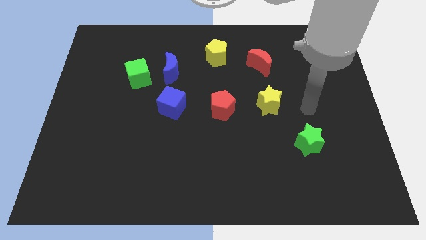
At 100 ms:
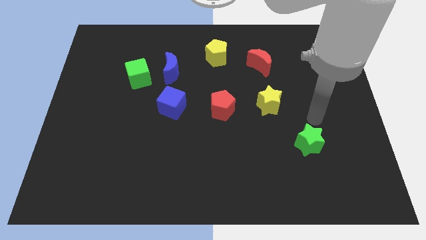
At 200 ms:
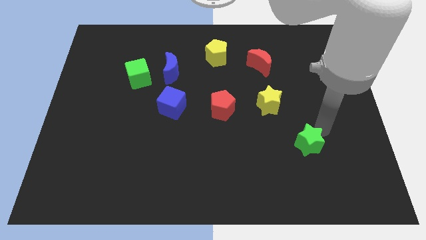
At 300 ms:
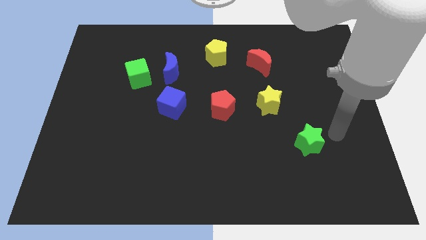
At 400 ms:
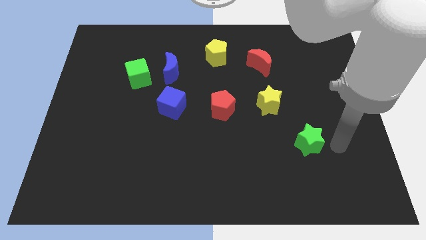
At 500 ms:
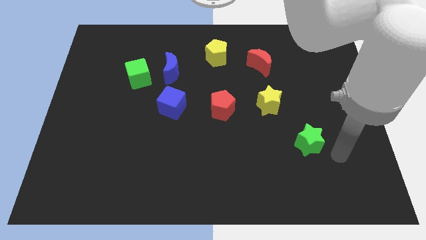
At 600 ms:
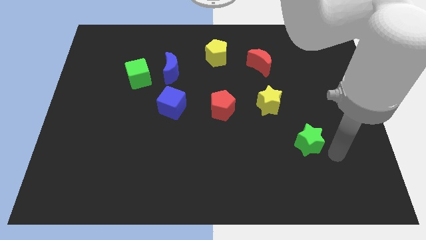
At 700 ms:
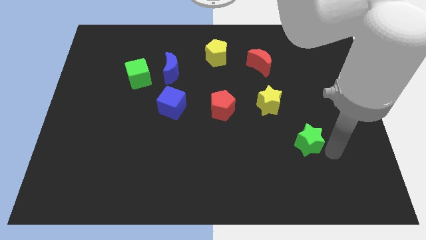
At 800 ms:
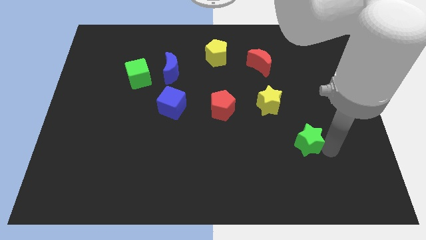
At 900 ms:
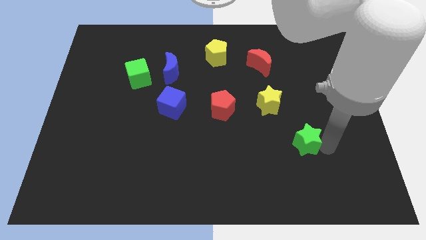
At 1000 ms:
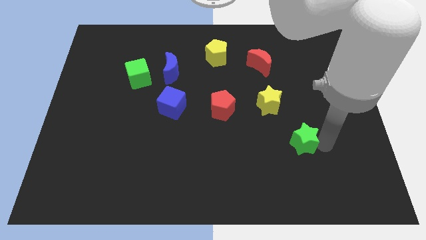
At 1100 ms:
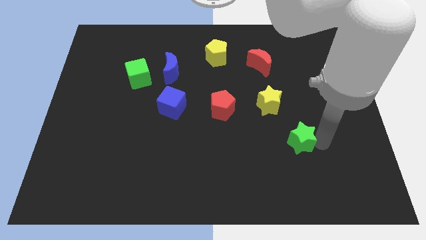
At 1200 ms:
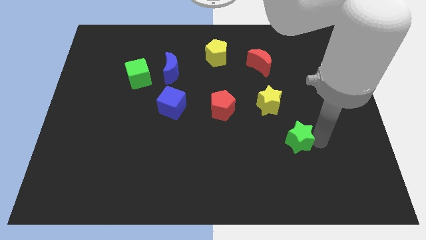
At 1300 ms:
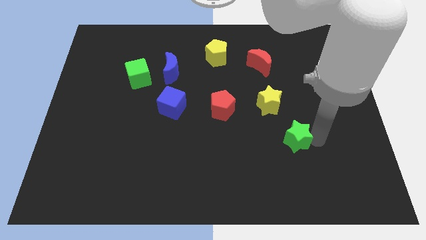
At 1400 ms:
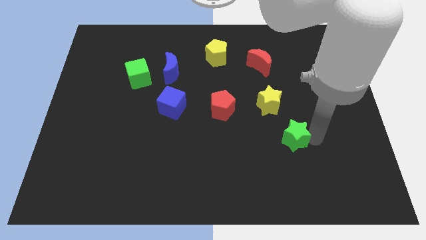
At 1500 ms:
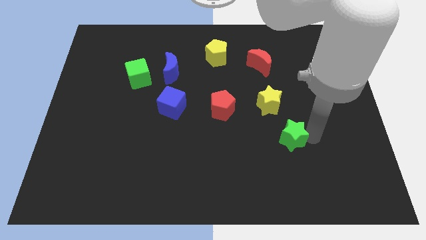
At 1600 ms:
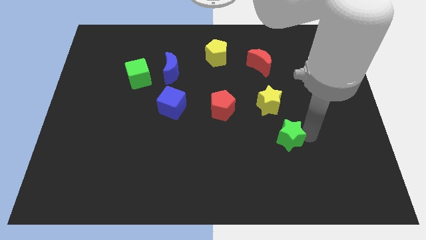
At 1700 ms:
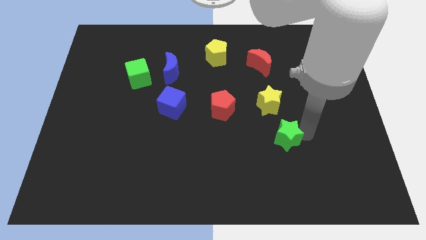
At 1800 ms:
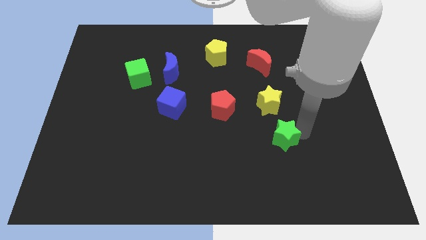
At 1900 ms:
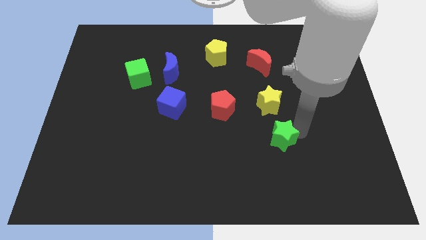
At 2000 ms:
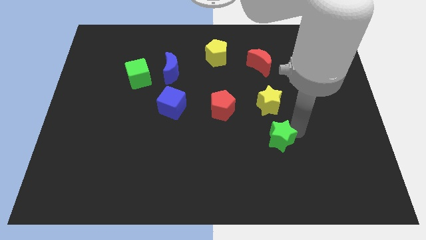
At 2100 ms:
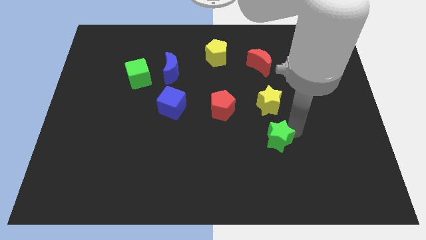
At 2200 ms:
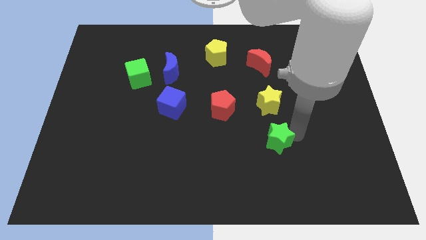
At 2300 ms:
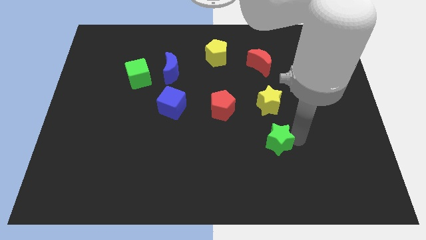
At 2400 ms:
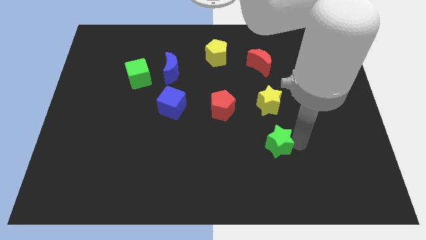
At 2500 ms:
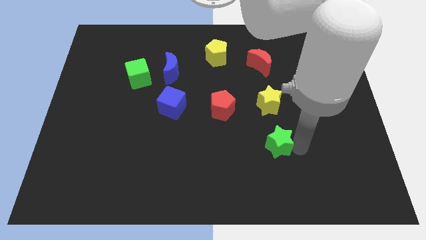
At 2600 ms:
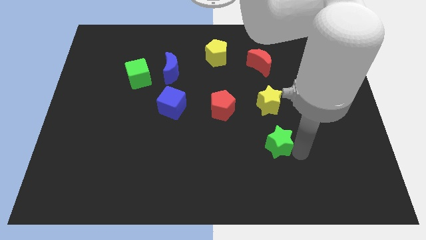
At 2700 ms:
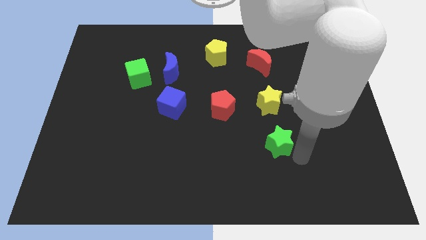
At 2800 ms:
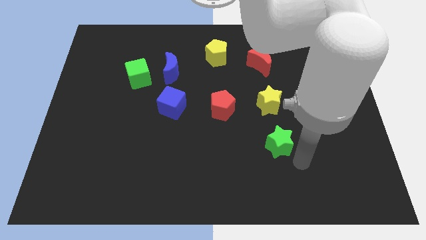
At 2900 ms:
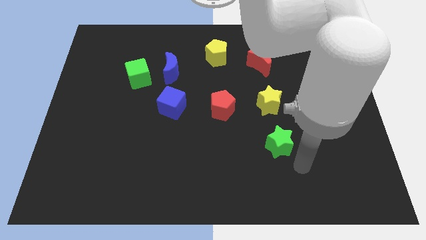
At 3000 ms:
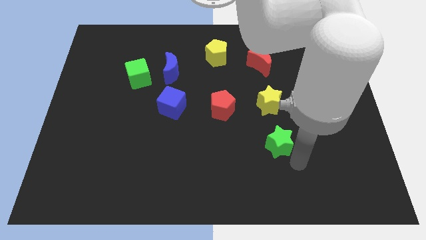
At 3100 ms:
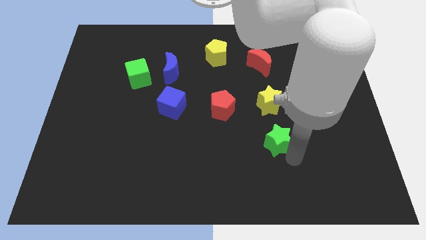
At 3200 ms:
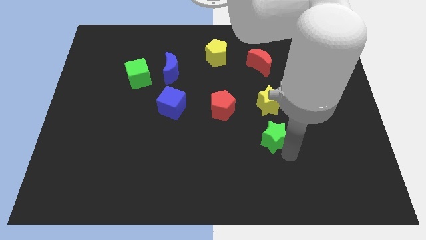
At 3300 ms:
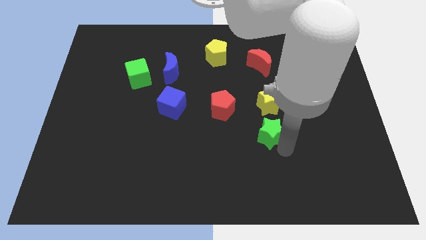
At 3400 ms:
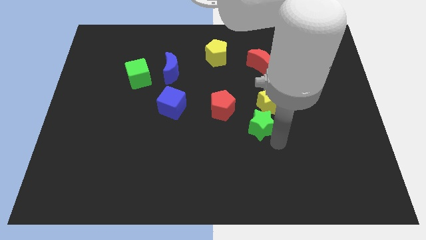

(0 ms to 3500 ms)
push the green star diagonally up and left slightly

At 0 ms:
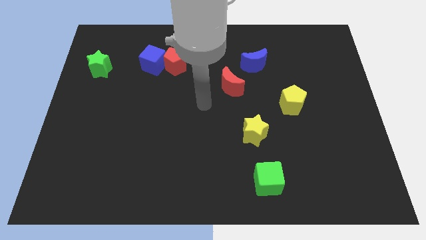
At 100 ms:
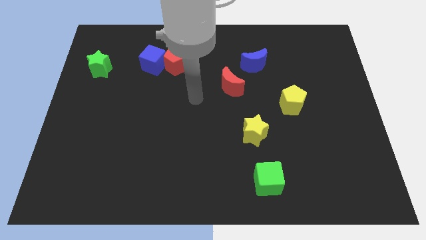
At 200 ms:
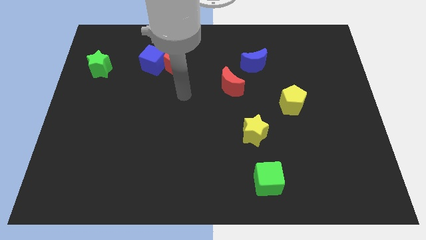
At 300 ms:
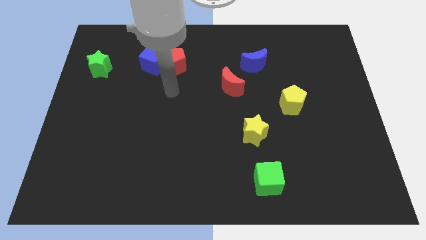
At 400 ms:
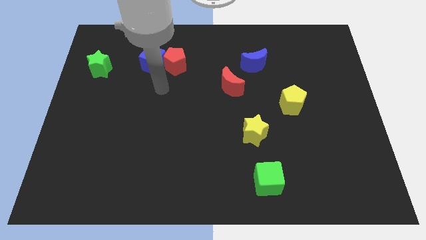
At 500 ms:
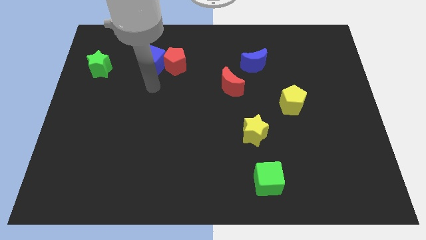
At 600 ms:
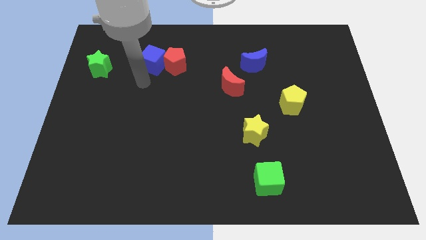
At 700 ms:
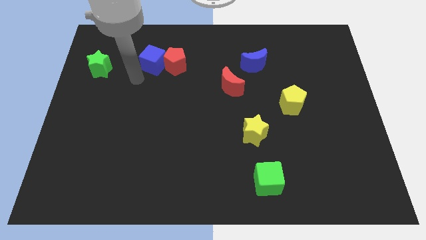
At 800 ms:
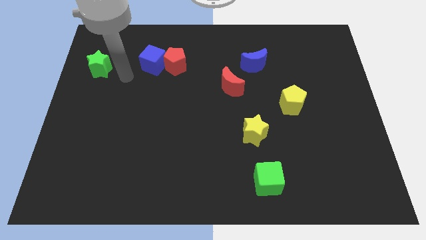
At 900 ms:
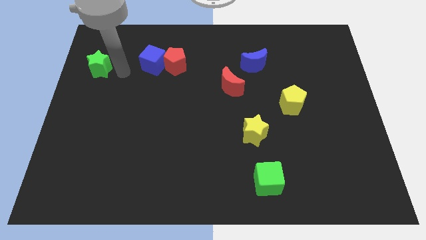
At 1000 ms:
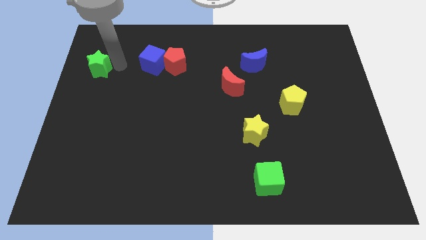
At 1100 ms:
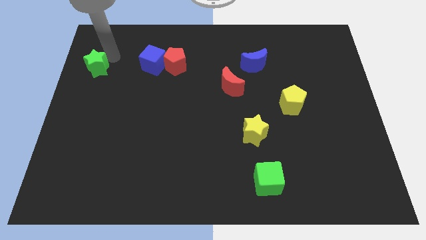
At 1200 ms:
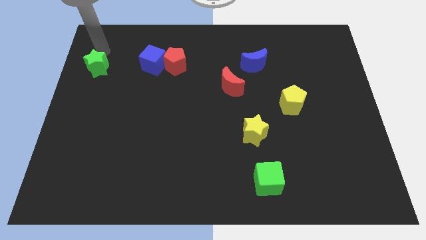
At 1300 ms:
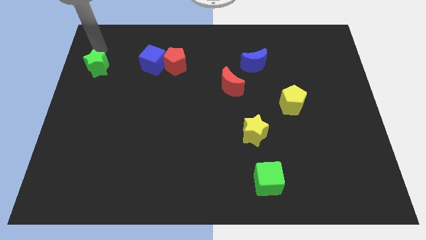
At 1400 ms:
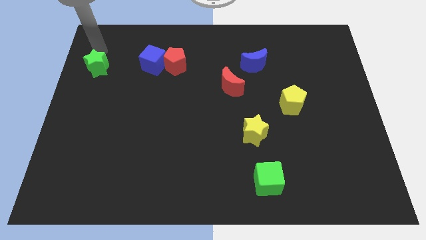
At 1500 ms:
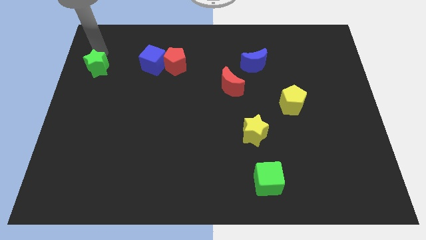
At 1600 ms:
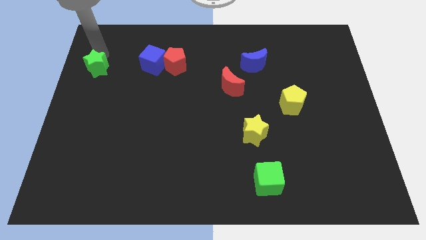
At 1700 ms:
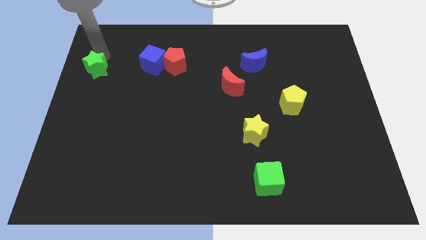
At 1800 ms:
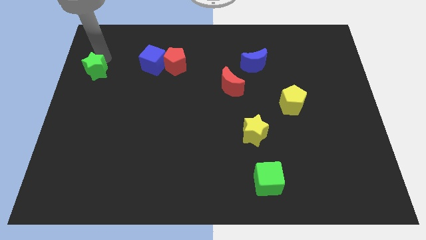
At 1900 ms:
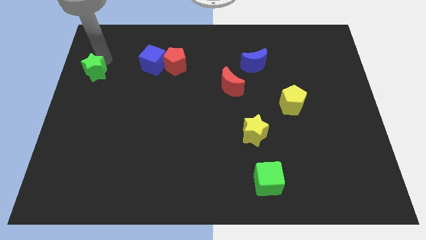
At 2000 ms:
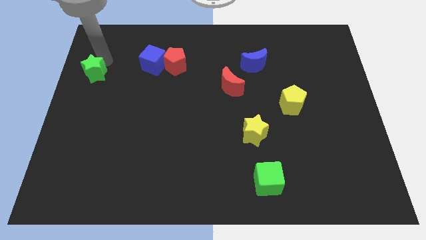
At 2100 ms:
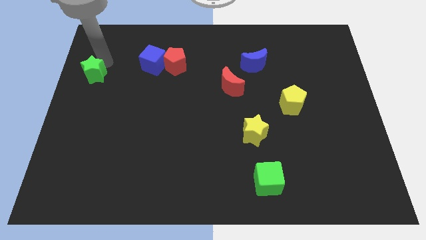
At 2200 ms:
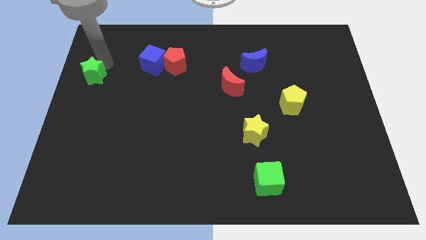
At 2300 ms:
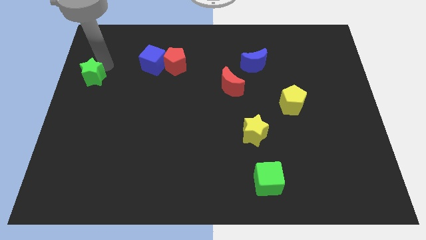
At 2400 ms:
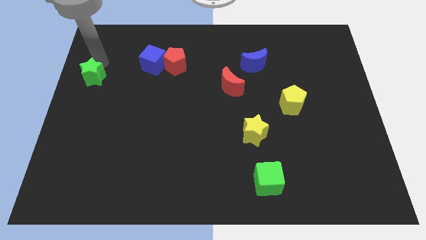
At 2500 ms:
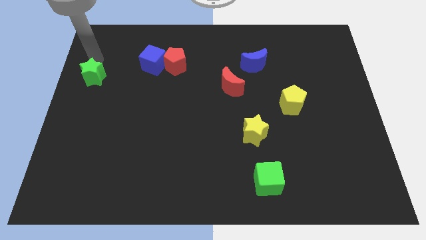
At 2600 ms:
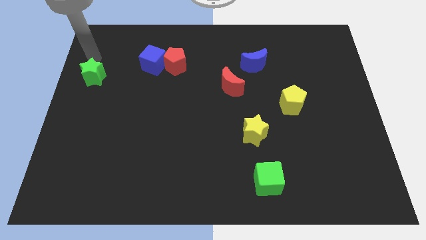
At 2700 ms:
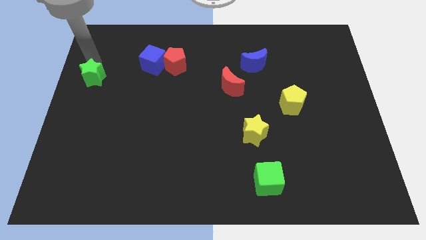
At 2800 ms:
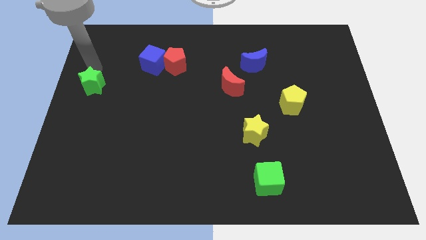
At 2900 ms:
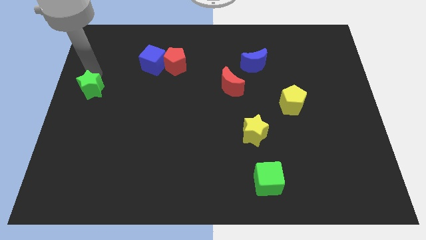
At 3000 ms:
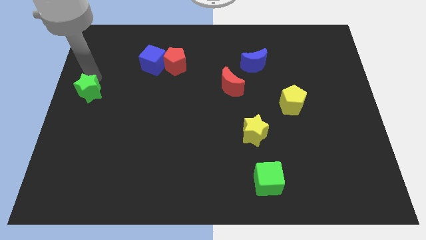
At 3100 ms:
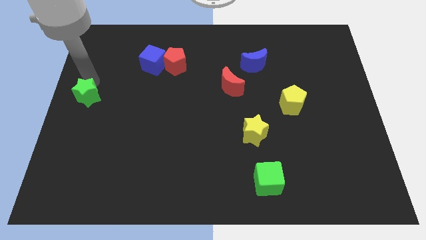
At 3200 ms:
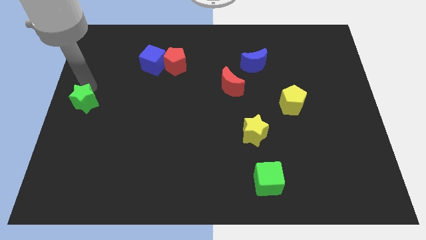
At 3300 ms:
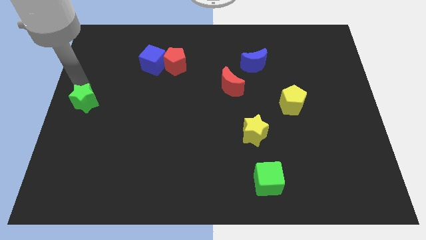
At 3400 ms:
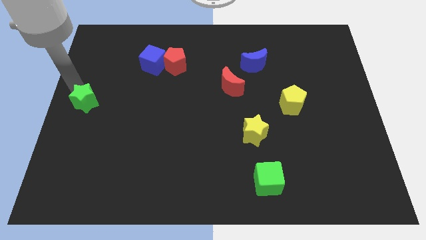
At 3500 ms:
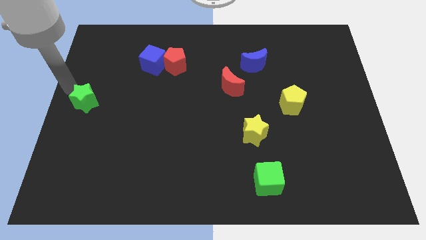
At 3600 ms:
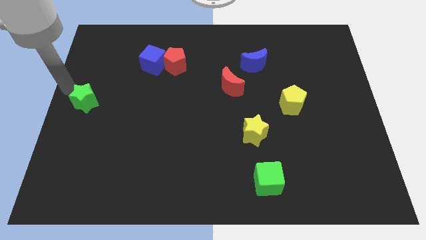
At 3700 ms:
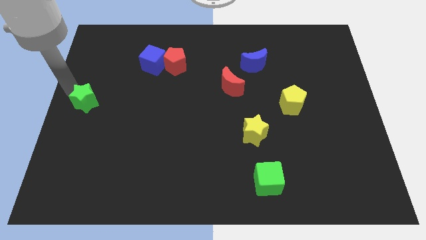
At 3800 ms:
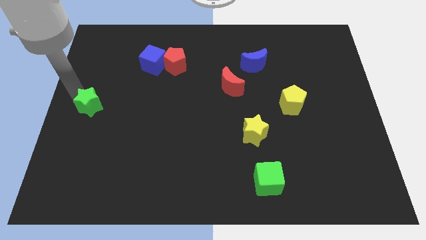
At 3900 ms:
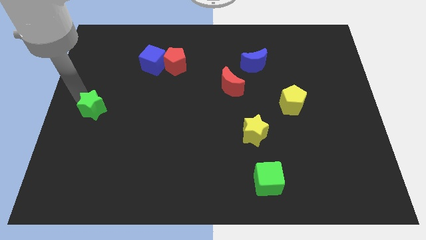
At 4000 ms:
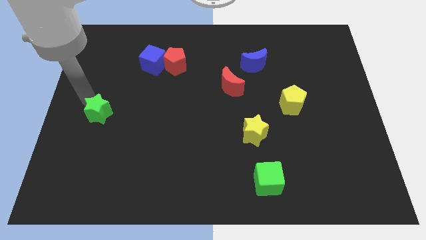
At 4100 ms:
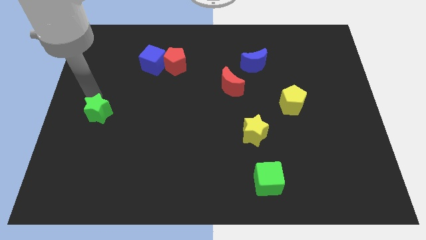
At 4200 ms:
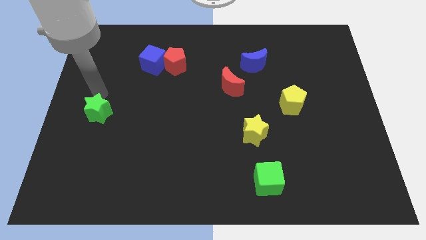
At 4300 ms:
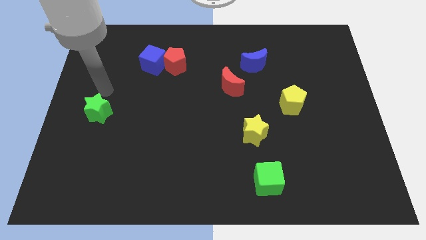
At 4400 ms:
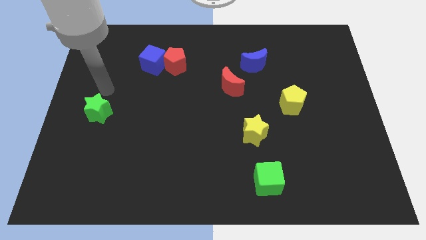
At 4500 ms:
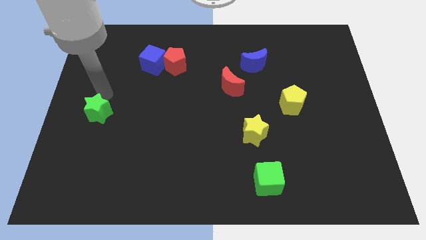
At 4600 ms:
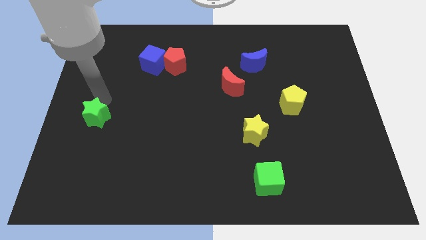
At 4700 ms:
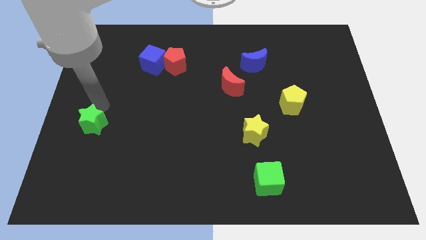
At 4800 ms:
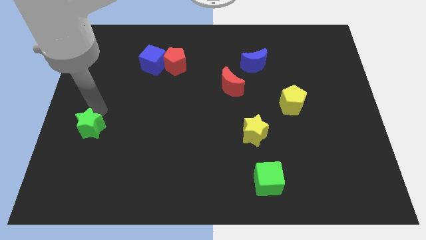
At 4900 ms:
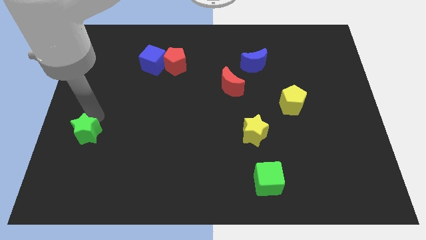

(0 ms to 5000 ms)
slide the green star down
